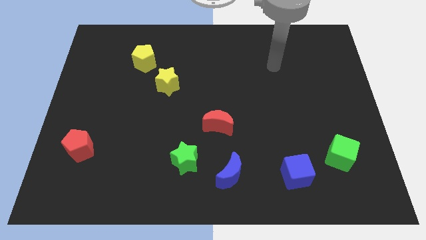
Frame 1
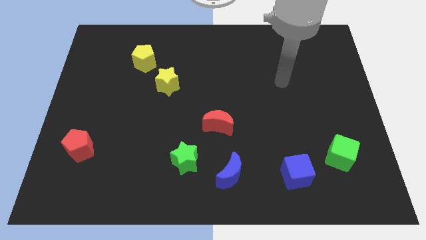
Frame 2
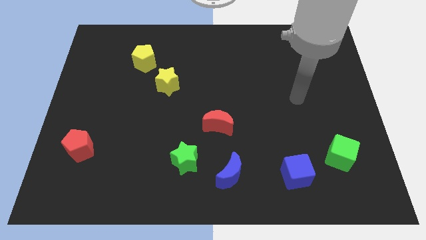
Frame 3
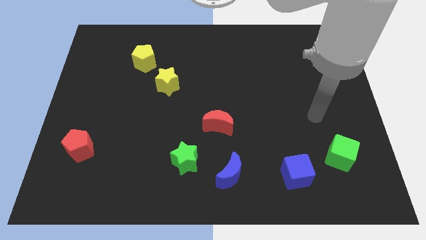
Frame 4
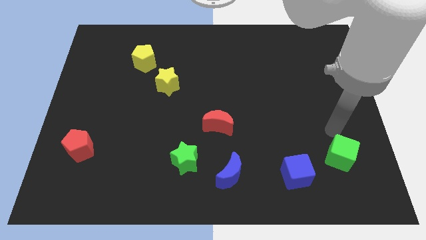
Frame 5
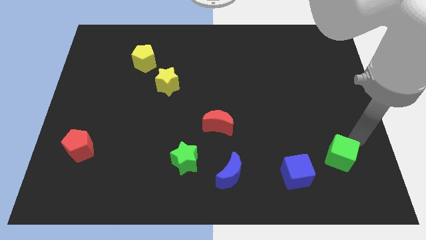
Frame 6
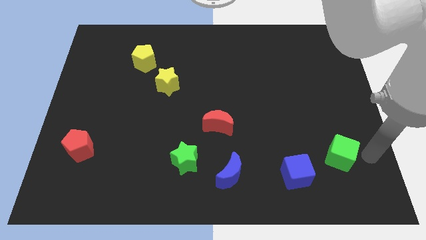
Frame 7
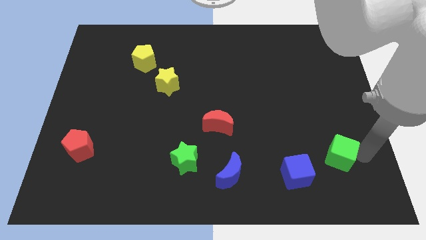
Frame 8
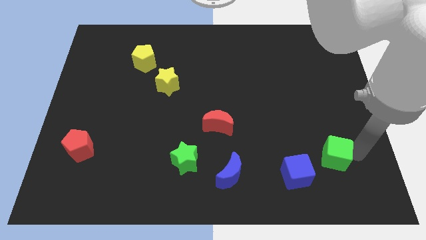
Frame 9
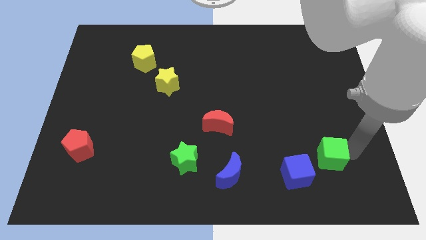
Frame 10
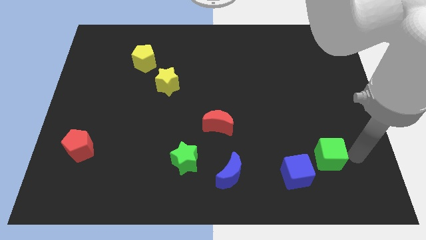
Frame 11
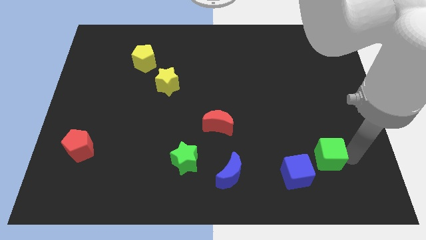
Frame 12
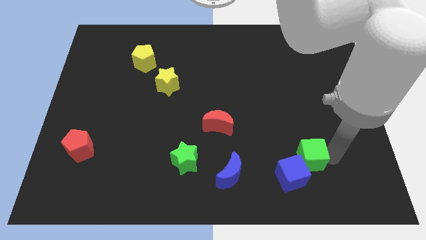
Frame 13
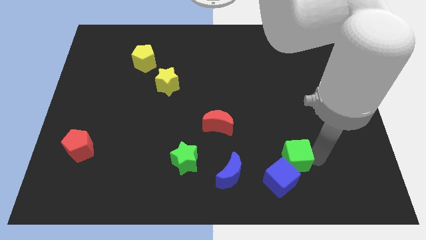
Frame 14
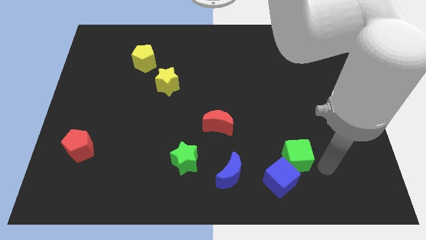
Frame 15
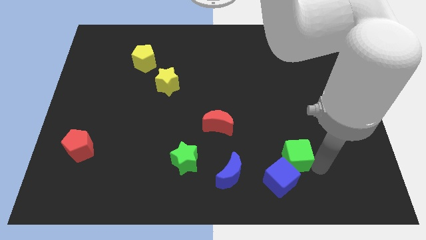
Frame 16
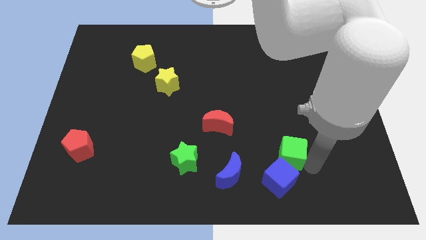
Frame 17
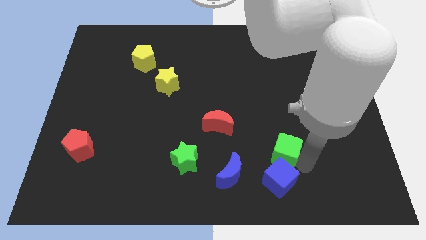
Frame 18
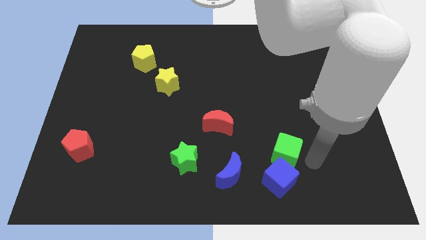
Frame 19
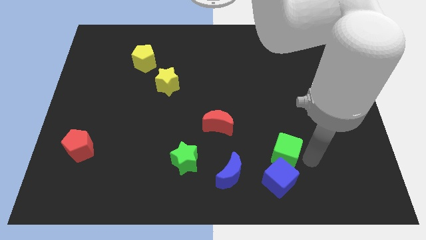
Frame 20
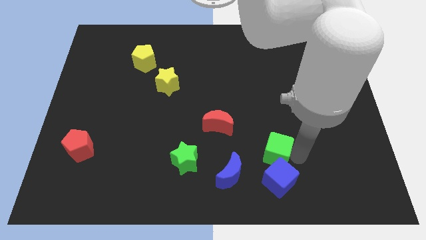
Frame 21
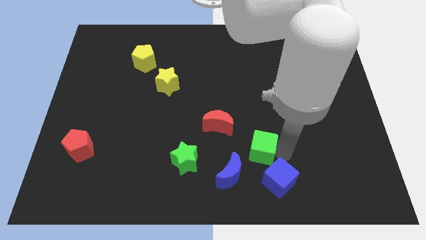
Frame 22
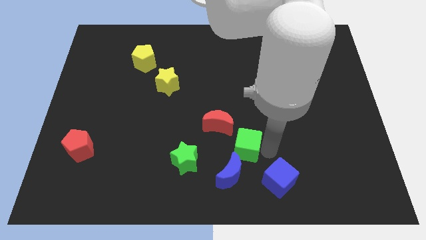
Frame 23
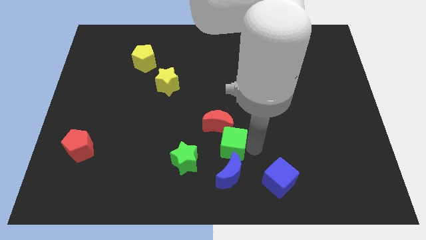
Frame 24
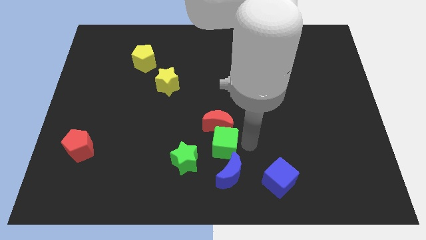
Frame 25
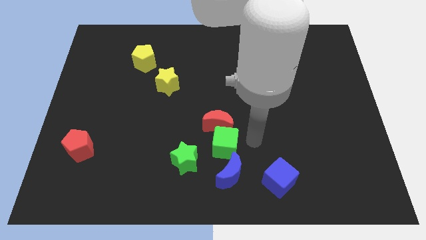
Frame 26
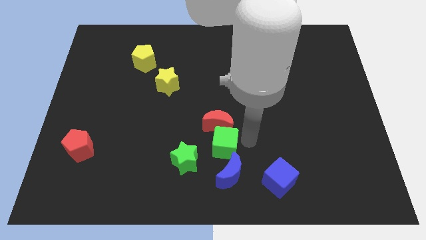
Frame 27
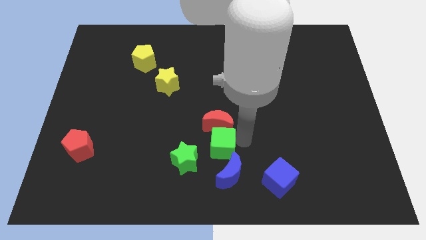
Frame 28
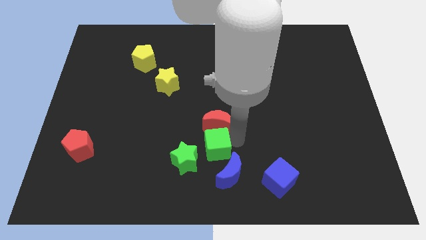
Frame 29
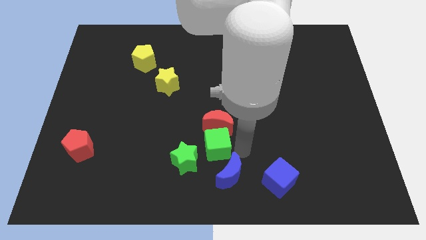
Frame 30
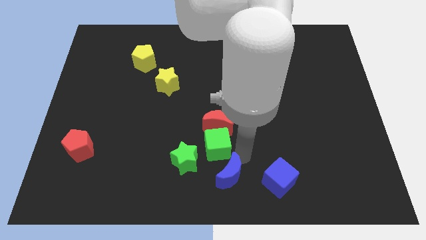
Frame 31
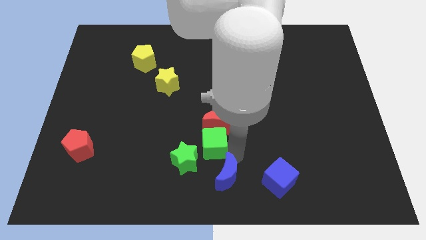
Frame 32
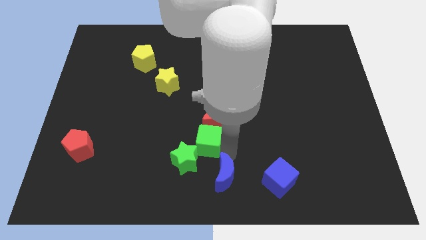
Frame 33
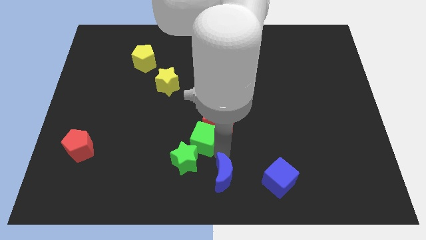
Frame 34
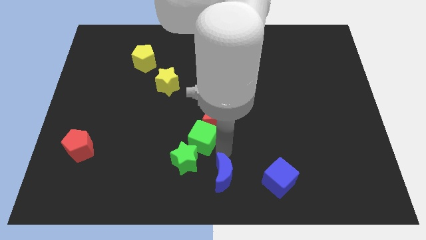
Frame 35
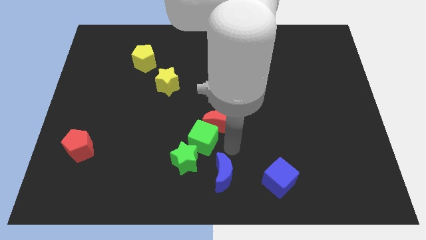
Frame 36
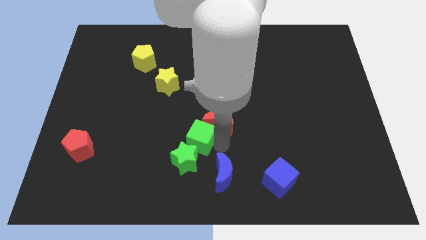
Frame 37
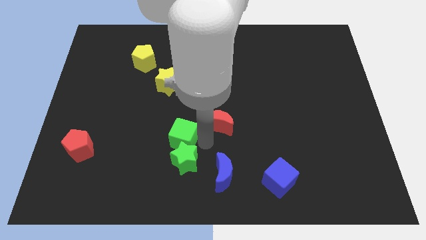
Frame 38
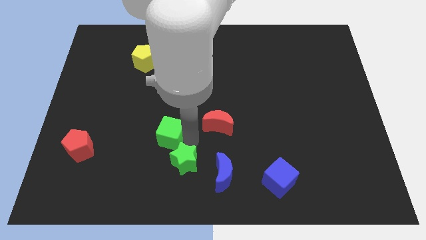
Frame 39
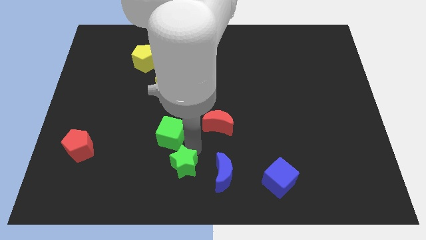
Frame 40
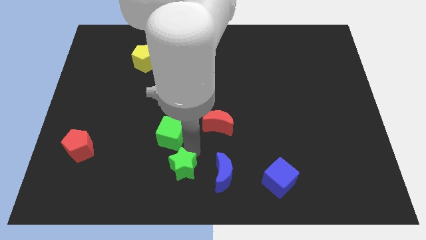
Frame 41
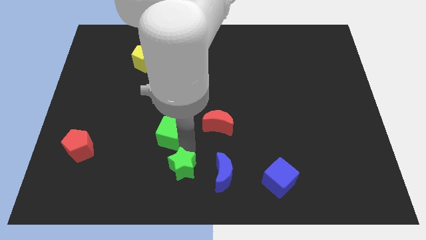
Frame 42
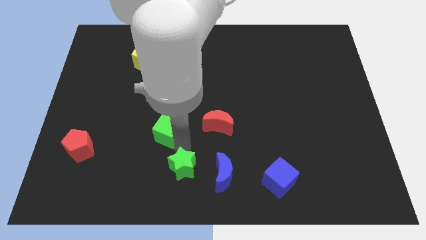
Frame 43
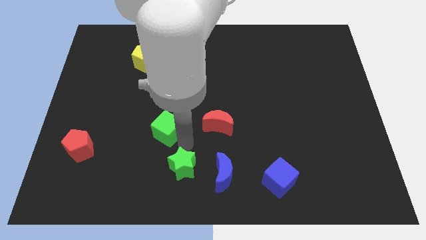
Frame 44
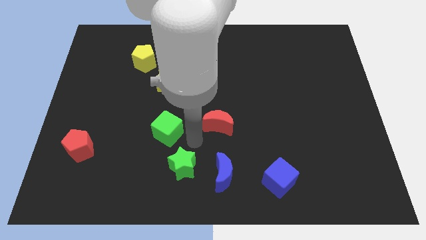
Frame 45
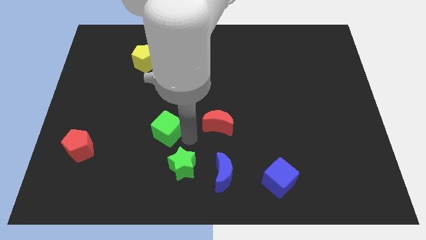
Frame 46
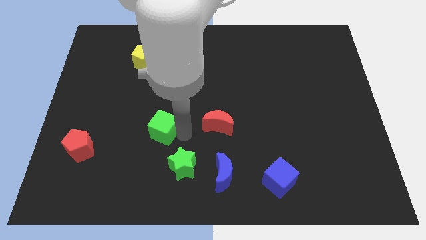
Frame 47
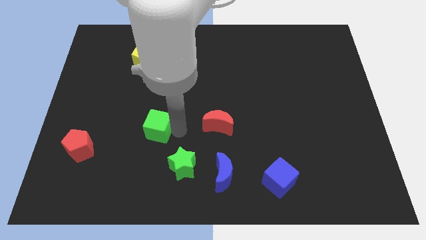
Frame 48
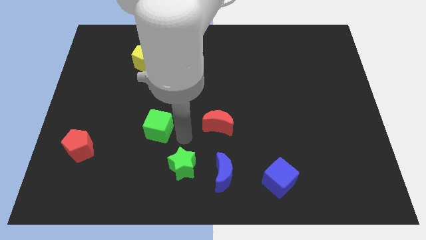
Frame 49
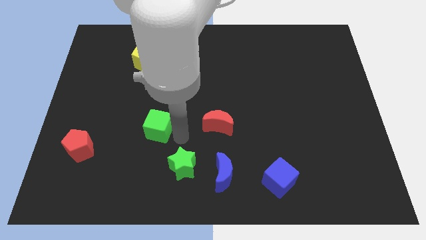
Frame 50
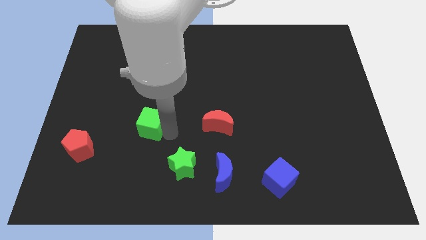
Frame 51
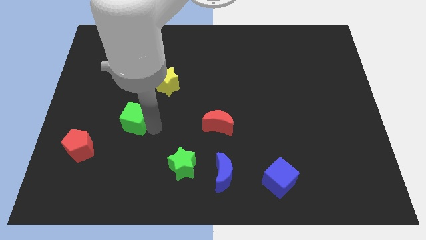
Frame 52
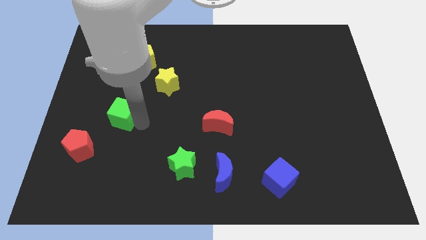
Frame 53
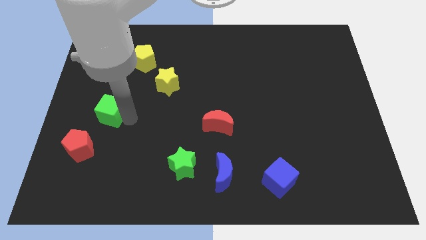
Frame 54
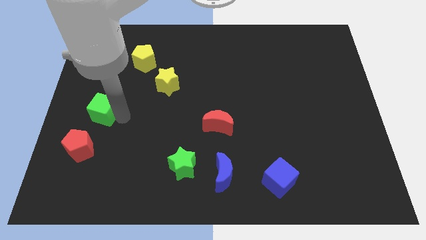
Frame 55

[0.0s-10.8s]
push the green cube to the center left
